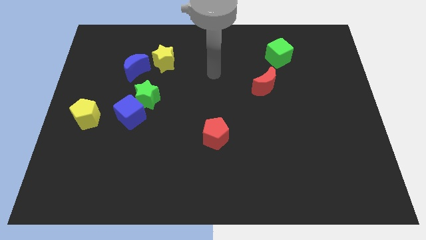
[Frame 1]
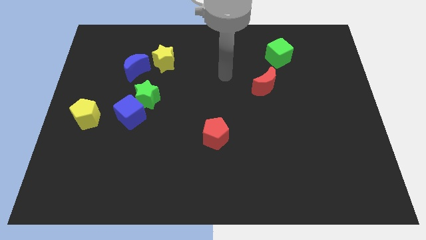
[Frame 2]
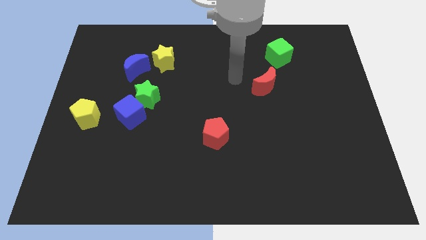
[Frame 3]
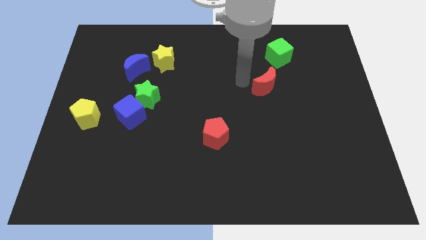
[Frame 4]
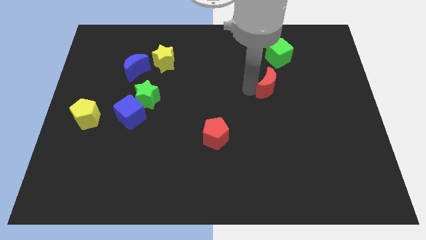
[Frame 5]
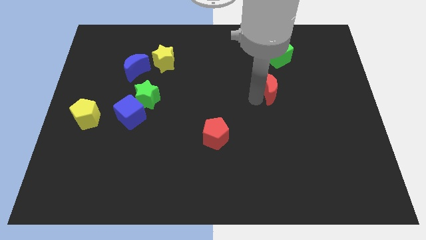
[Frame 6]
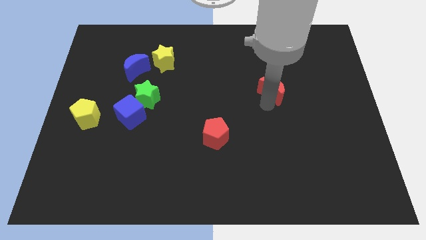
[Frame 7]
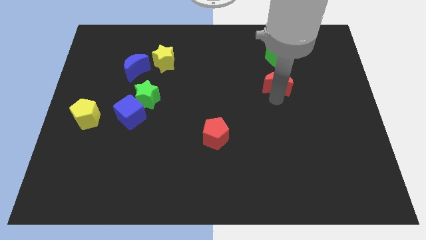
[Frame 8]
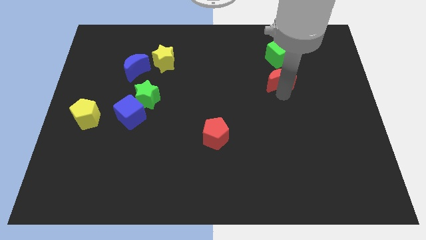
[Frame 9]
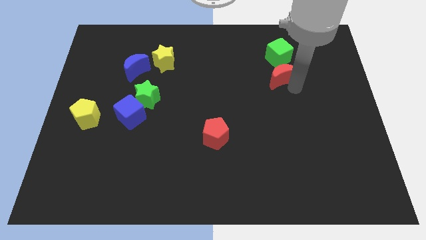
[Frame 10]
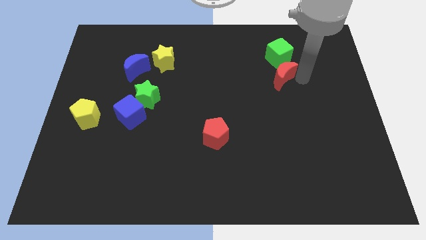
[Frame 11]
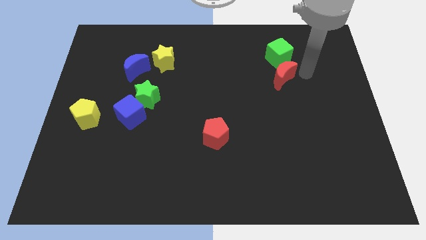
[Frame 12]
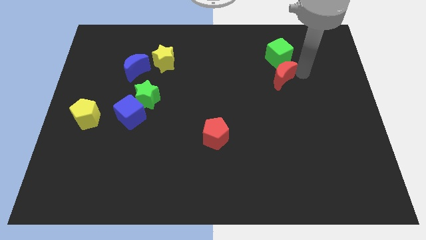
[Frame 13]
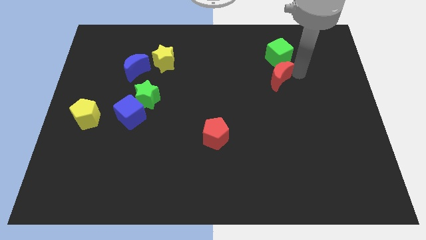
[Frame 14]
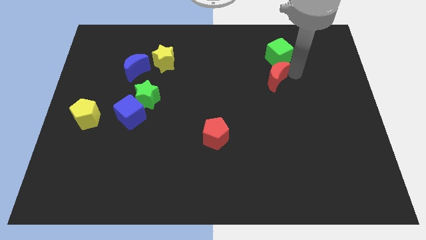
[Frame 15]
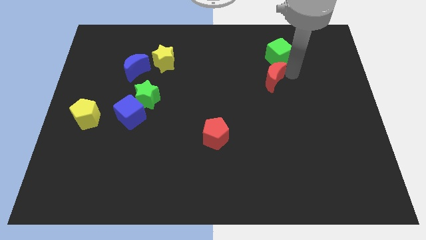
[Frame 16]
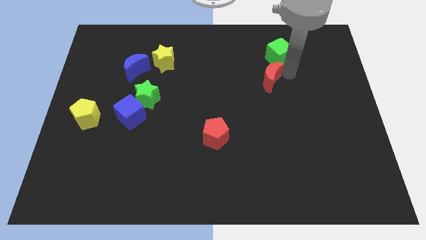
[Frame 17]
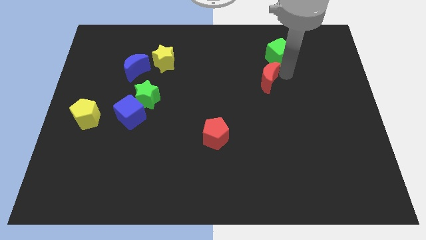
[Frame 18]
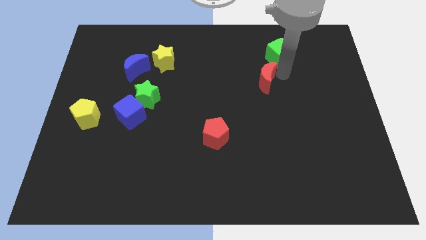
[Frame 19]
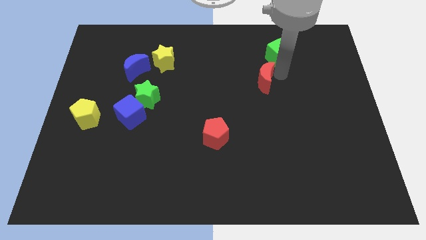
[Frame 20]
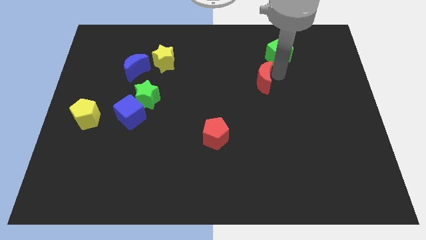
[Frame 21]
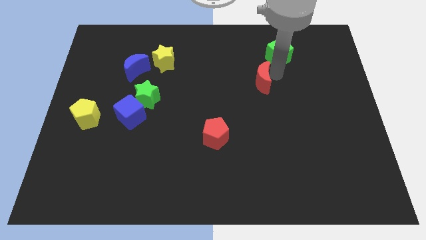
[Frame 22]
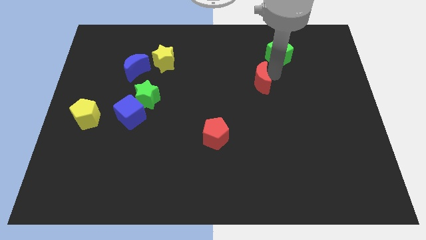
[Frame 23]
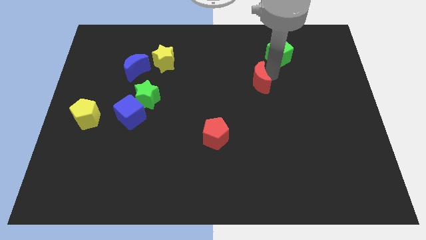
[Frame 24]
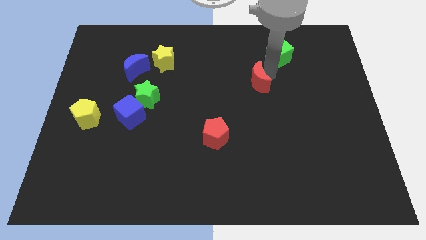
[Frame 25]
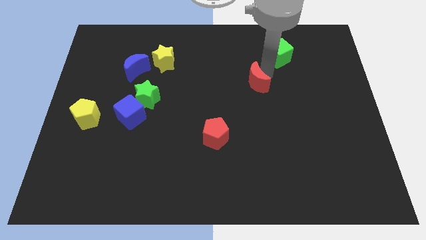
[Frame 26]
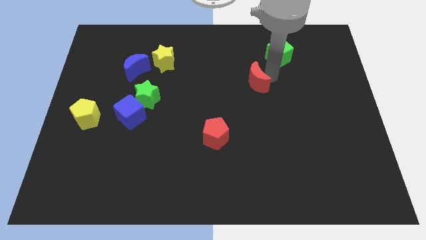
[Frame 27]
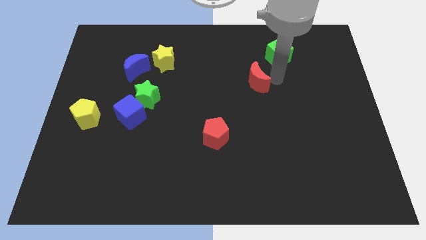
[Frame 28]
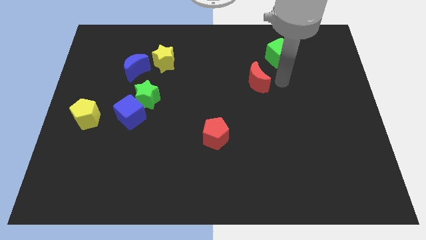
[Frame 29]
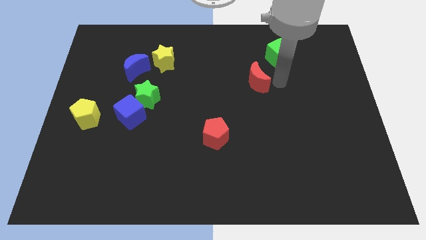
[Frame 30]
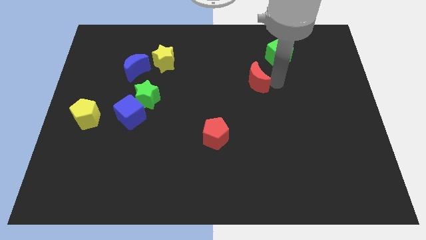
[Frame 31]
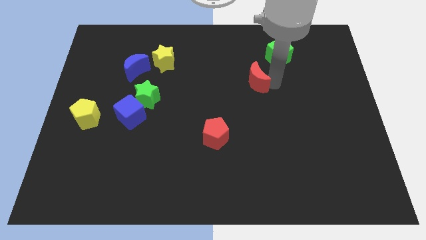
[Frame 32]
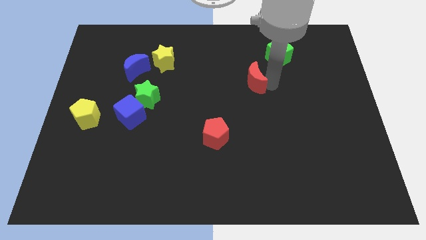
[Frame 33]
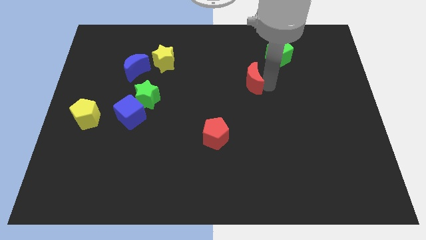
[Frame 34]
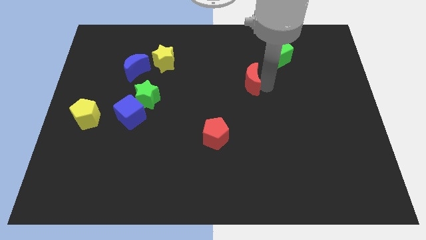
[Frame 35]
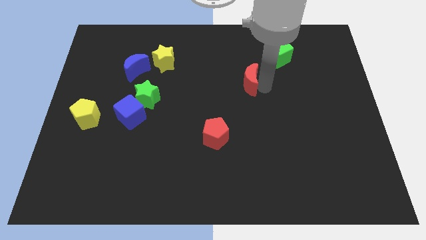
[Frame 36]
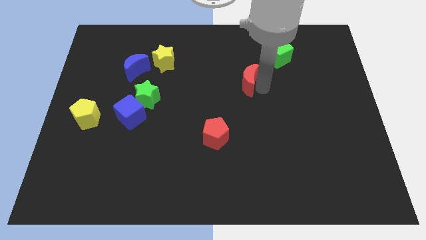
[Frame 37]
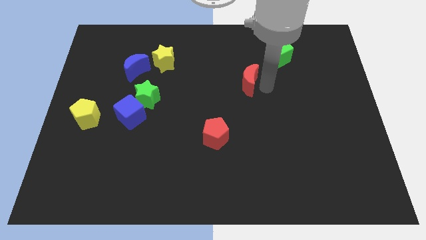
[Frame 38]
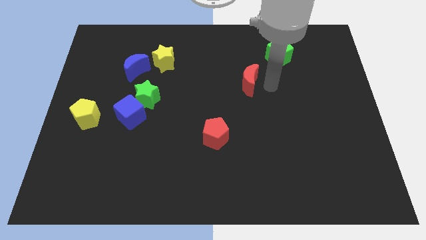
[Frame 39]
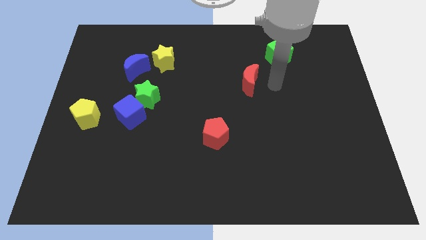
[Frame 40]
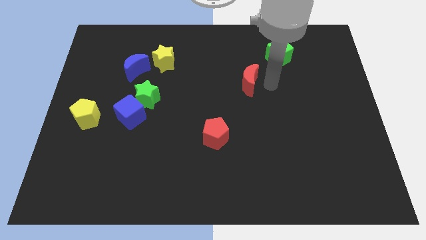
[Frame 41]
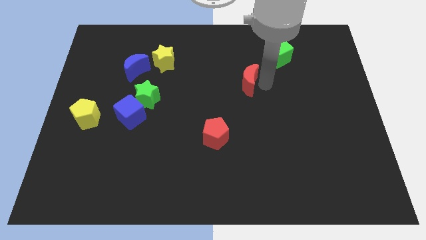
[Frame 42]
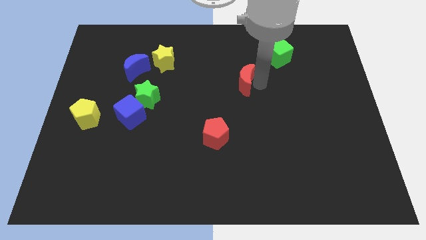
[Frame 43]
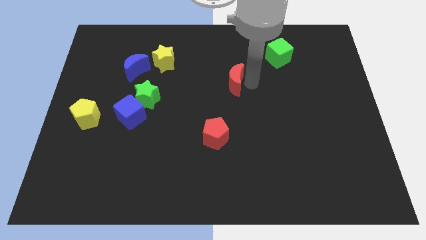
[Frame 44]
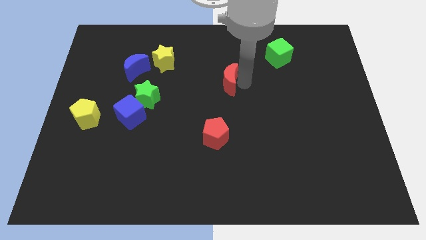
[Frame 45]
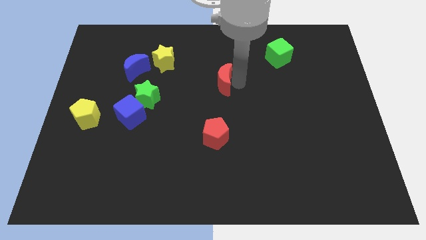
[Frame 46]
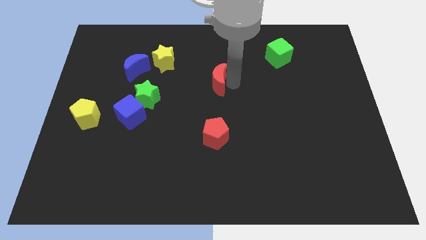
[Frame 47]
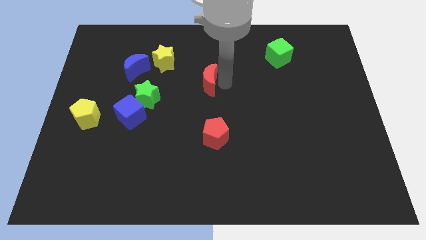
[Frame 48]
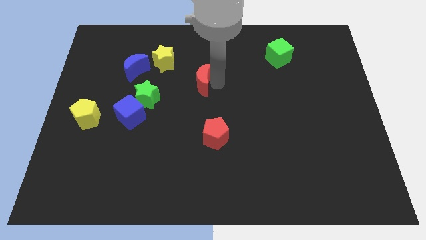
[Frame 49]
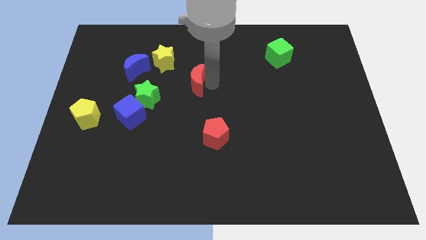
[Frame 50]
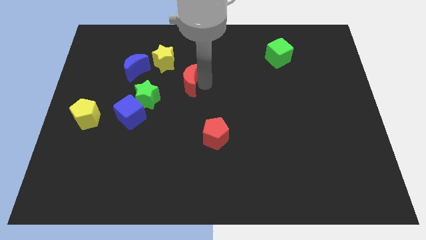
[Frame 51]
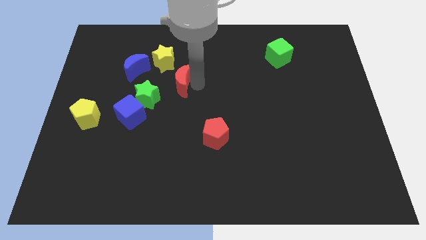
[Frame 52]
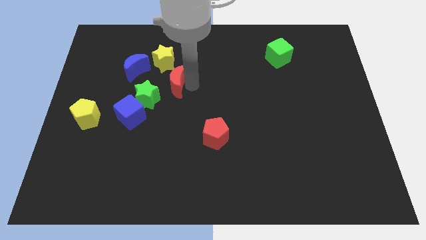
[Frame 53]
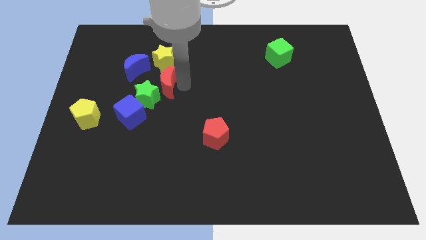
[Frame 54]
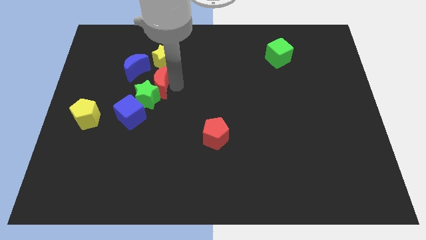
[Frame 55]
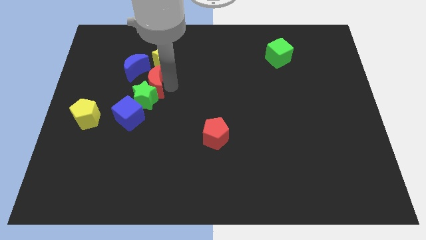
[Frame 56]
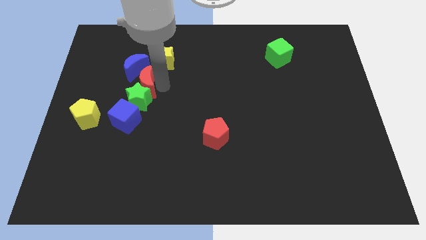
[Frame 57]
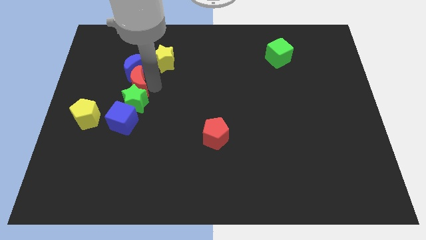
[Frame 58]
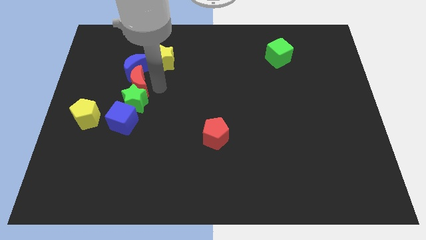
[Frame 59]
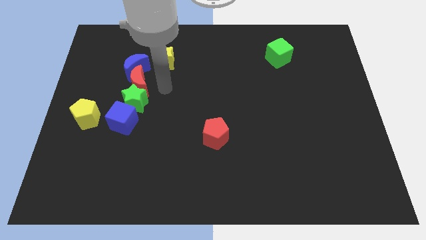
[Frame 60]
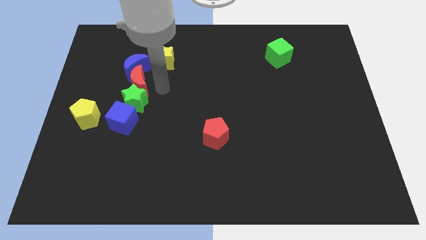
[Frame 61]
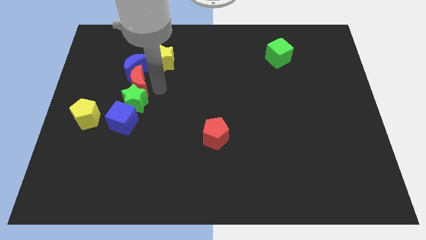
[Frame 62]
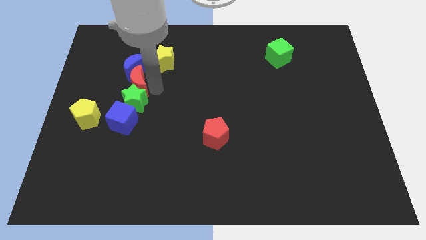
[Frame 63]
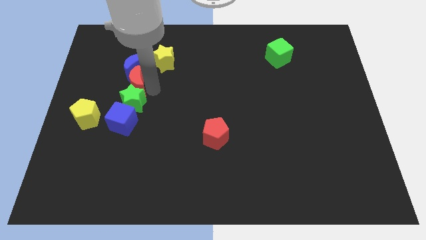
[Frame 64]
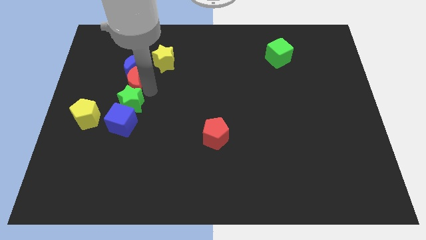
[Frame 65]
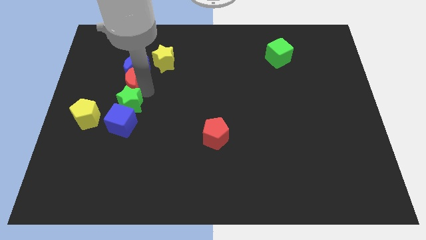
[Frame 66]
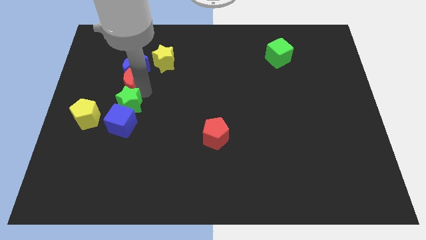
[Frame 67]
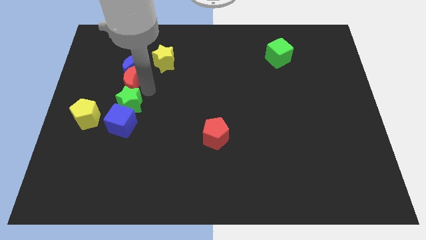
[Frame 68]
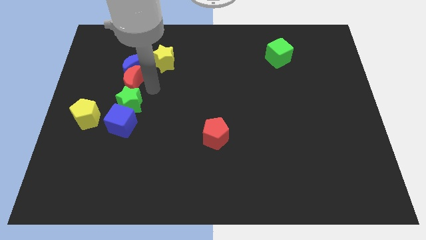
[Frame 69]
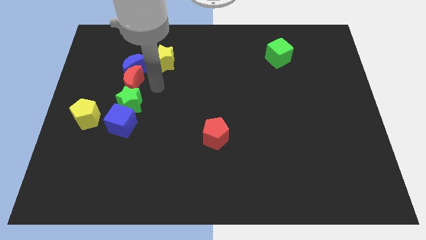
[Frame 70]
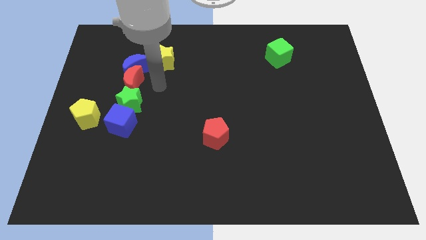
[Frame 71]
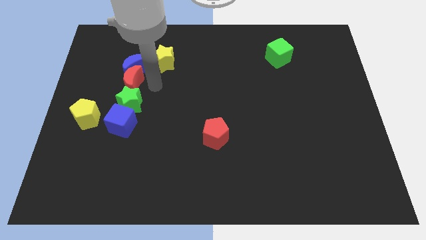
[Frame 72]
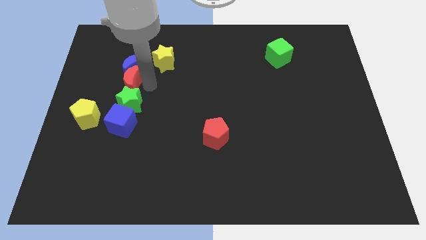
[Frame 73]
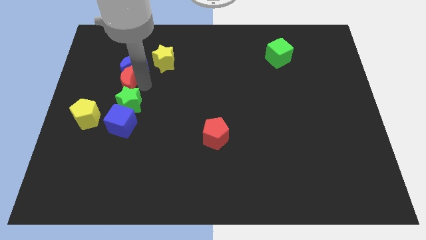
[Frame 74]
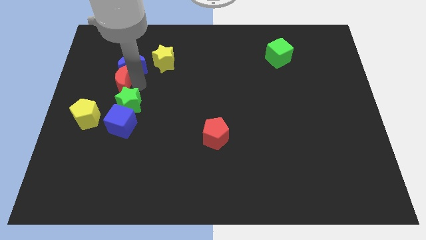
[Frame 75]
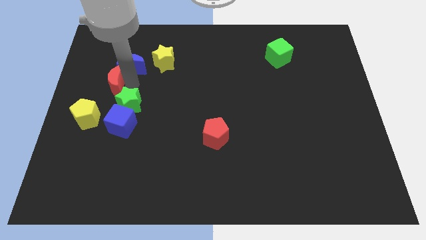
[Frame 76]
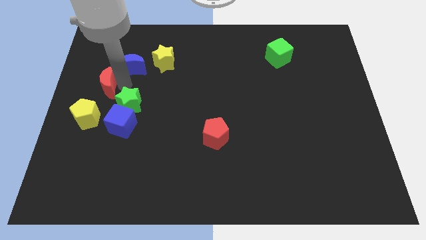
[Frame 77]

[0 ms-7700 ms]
move the red moon to the top side of the yellow pentagon

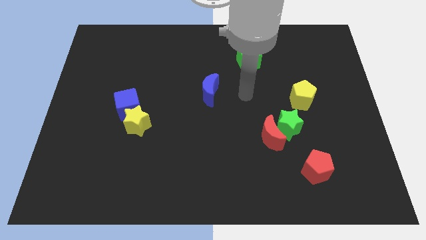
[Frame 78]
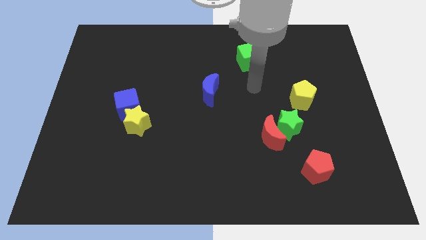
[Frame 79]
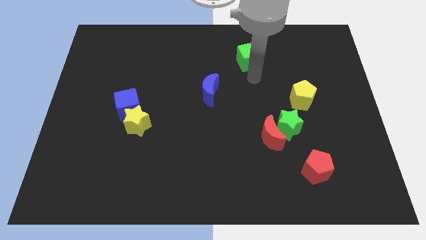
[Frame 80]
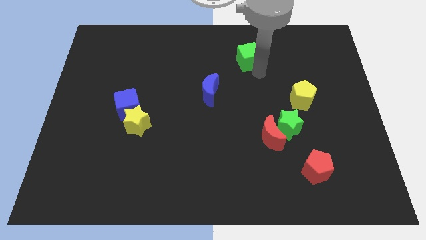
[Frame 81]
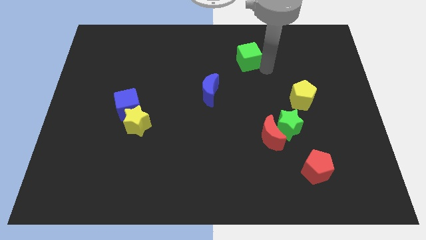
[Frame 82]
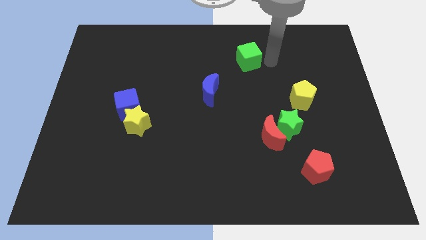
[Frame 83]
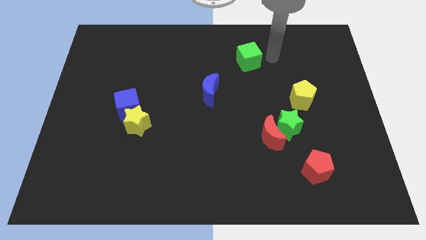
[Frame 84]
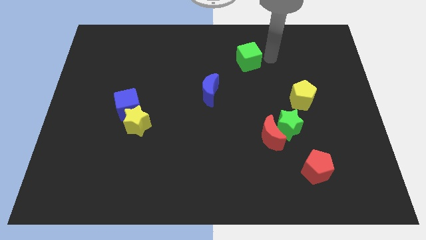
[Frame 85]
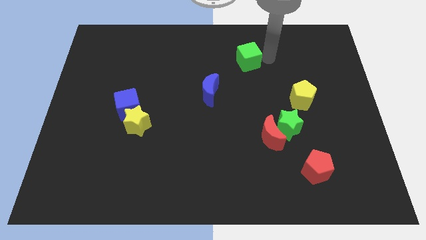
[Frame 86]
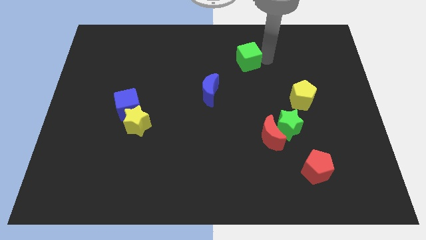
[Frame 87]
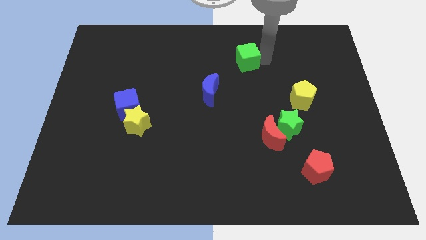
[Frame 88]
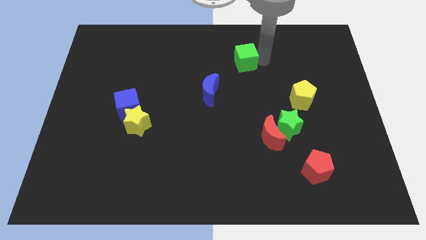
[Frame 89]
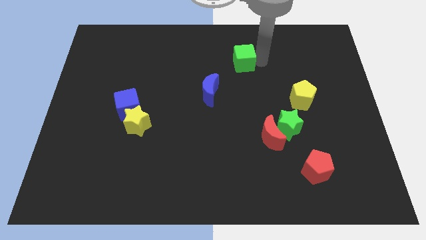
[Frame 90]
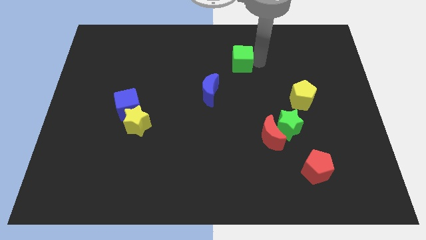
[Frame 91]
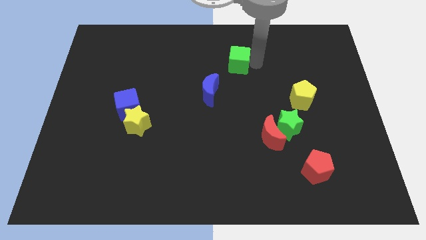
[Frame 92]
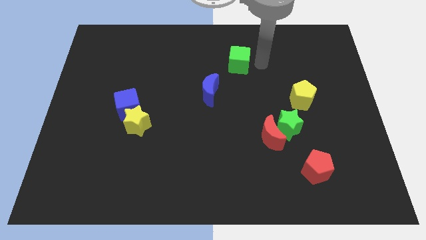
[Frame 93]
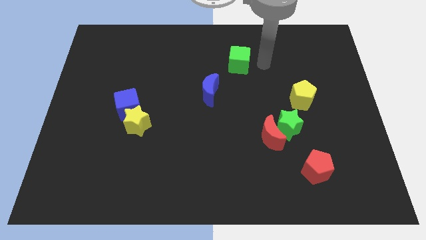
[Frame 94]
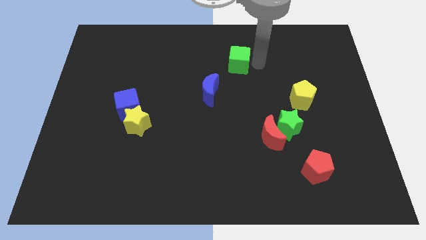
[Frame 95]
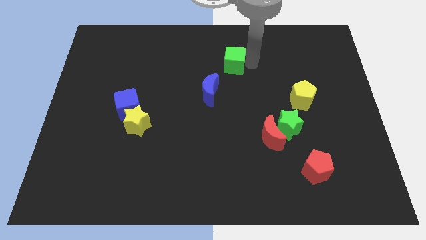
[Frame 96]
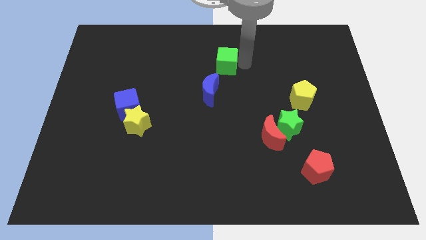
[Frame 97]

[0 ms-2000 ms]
slide the green cube above the blue moon
